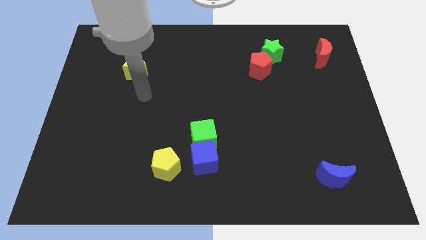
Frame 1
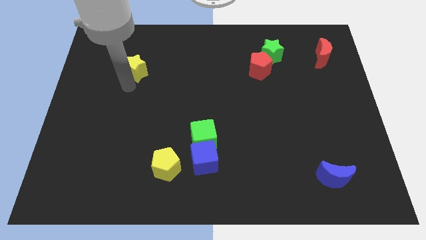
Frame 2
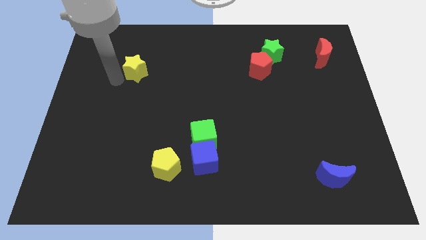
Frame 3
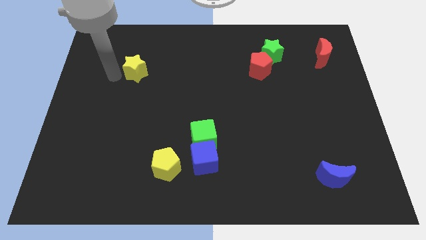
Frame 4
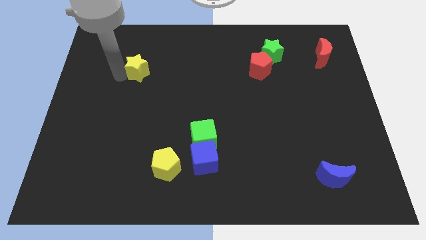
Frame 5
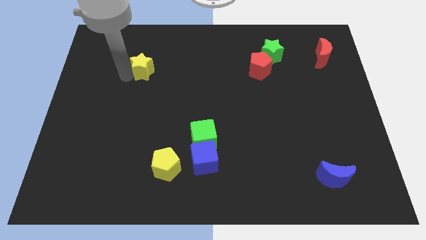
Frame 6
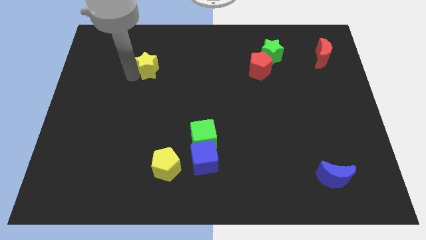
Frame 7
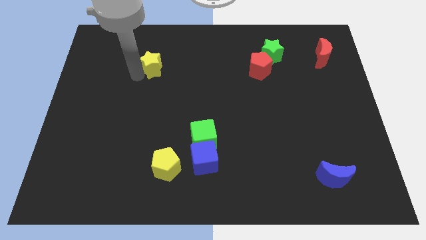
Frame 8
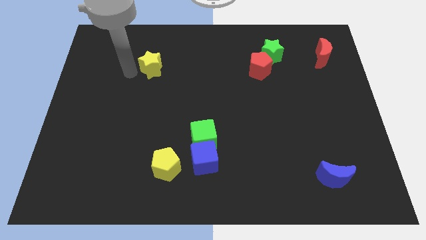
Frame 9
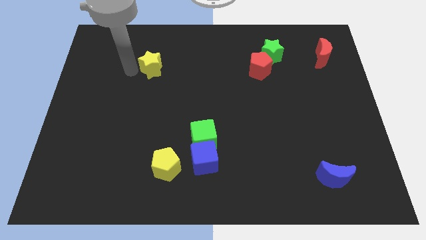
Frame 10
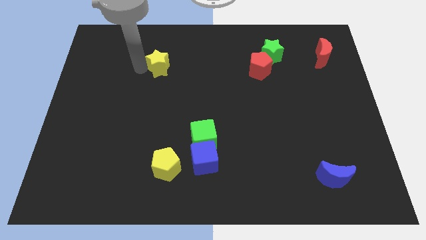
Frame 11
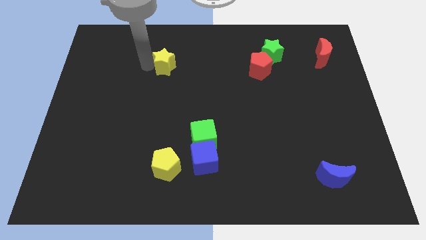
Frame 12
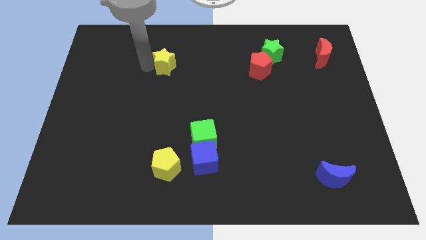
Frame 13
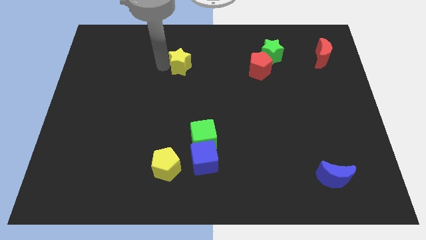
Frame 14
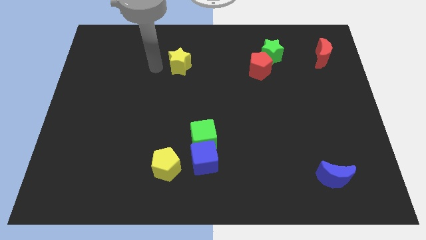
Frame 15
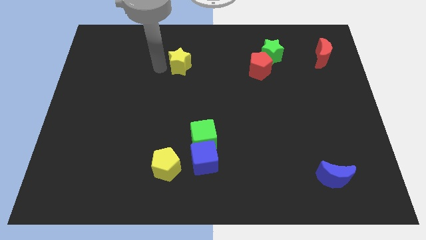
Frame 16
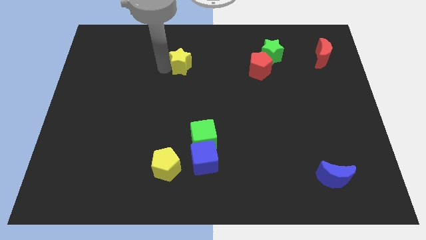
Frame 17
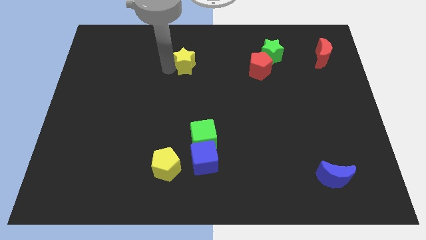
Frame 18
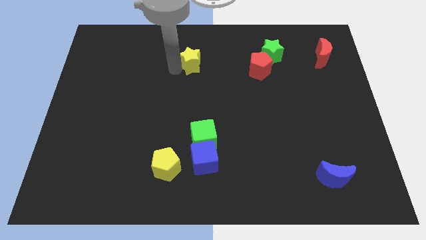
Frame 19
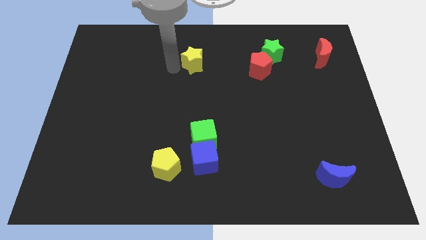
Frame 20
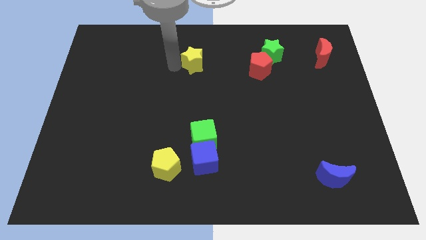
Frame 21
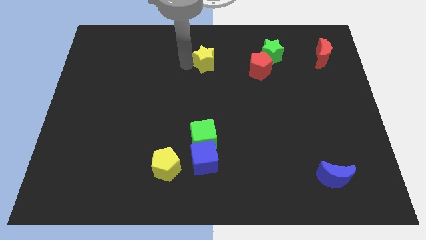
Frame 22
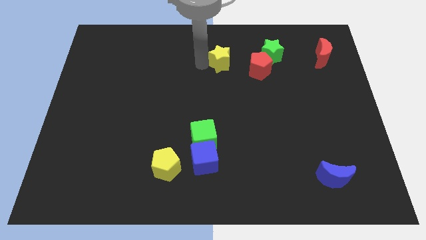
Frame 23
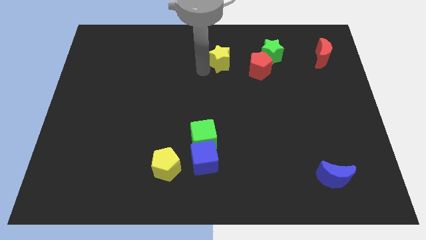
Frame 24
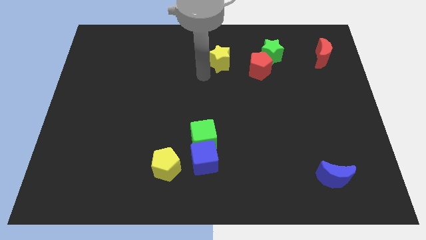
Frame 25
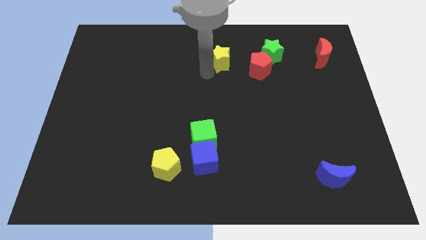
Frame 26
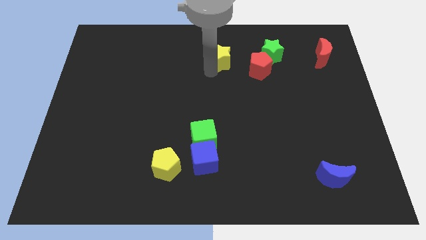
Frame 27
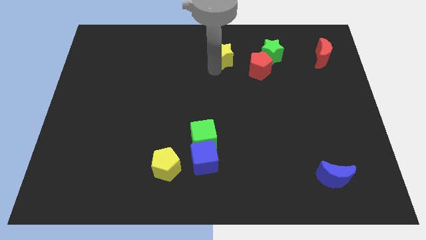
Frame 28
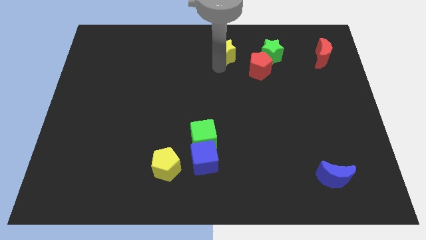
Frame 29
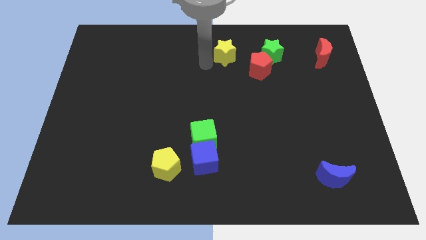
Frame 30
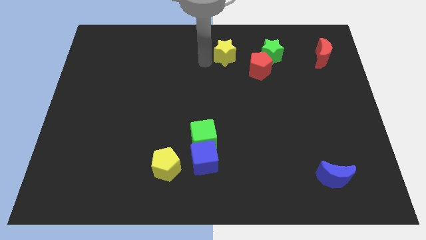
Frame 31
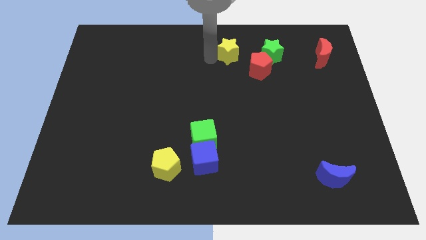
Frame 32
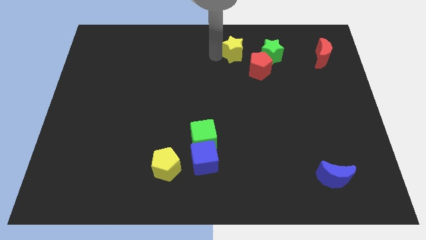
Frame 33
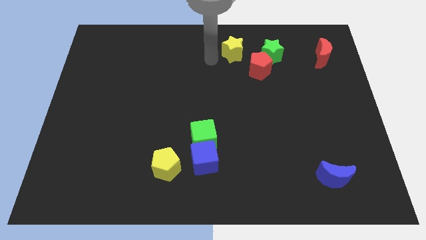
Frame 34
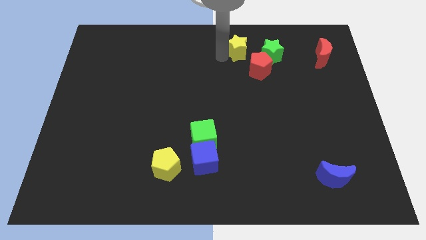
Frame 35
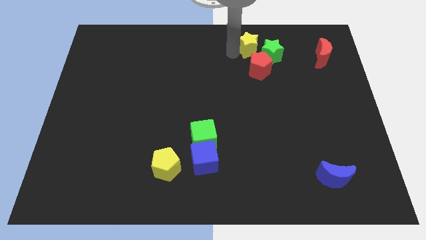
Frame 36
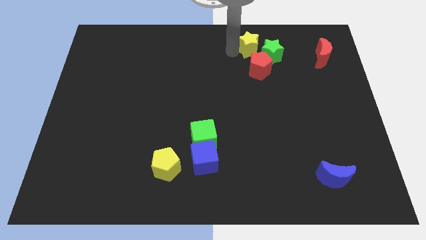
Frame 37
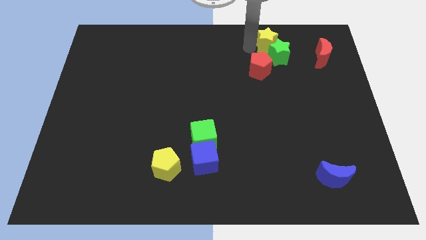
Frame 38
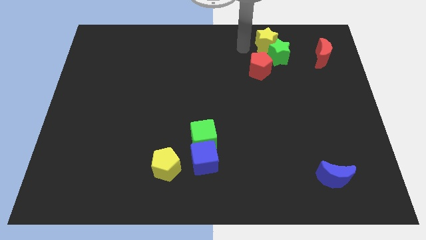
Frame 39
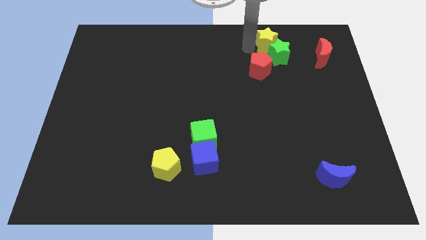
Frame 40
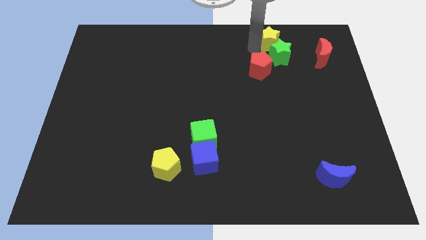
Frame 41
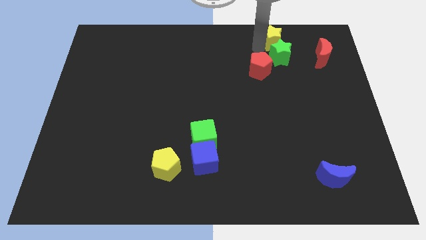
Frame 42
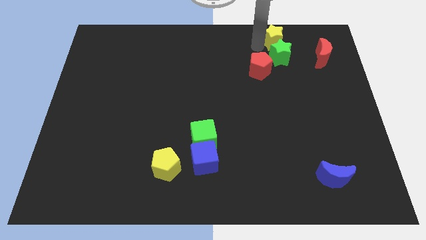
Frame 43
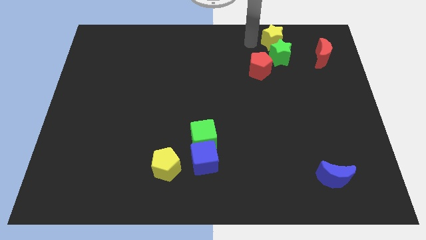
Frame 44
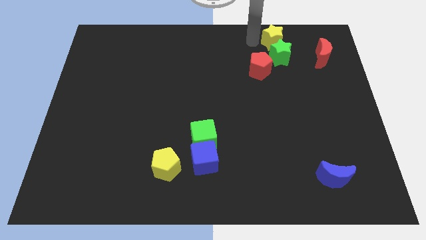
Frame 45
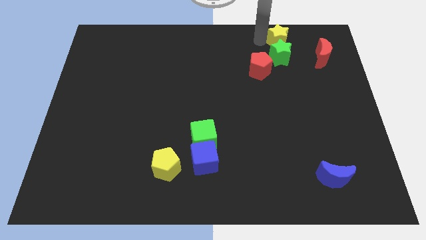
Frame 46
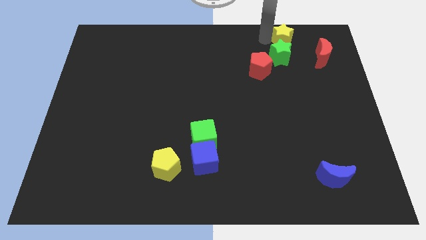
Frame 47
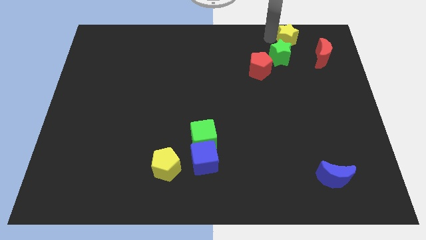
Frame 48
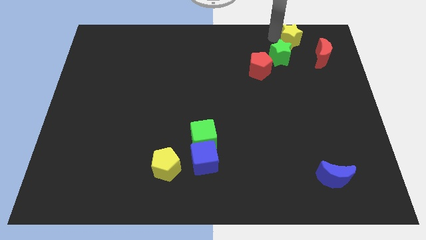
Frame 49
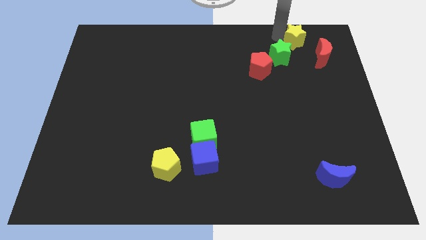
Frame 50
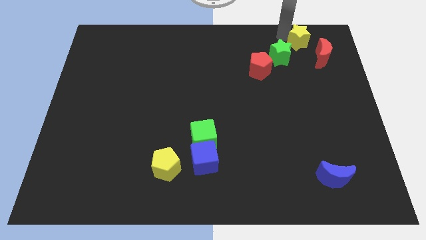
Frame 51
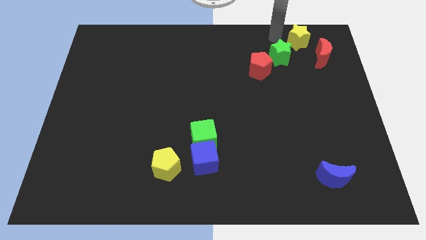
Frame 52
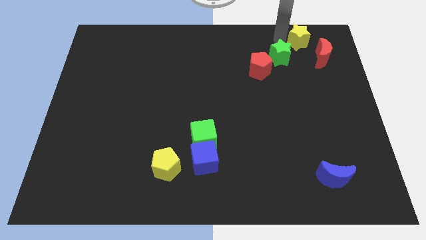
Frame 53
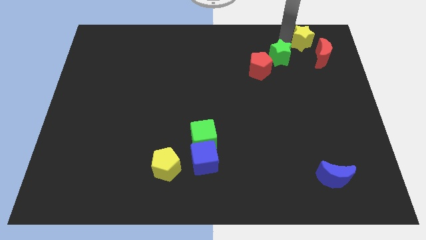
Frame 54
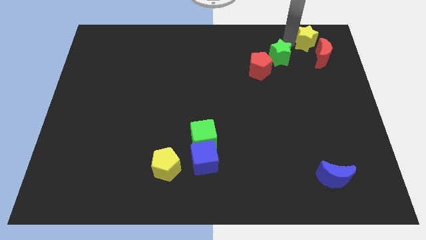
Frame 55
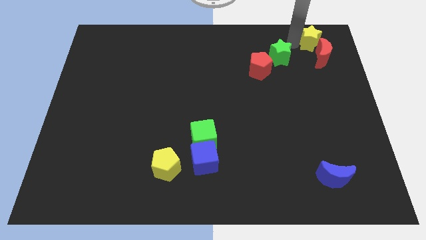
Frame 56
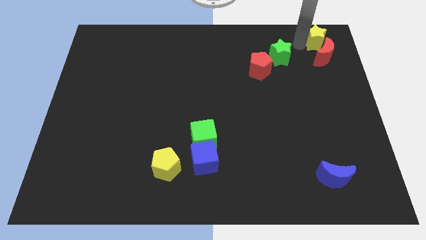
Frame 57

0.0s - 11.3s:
push the yellow star to the top right of the board

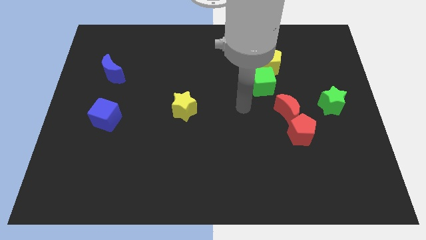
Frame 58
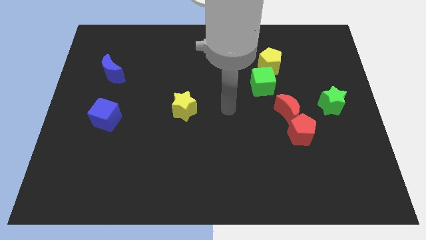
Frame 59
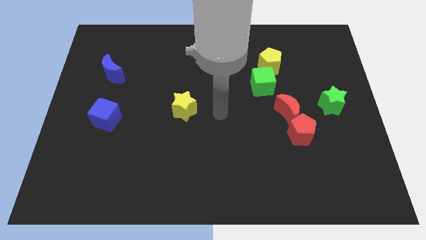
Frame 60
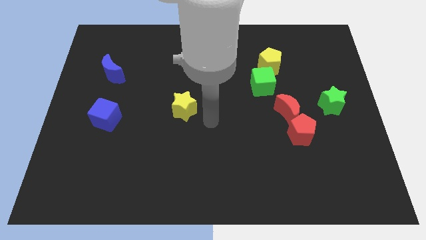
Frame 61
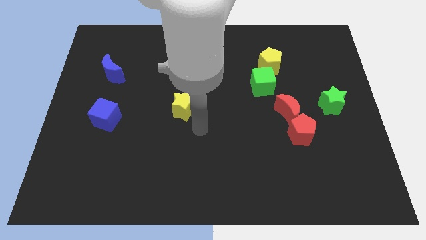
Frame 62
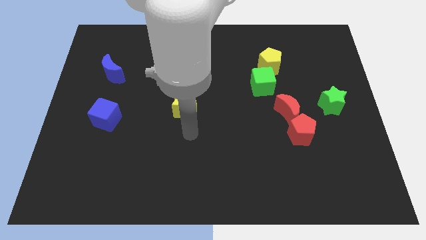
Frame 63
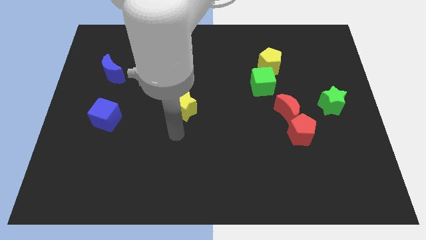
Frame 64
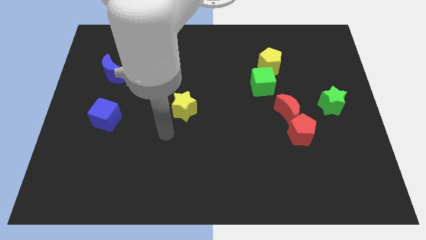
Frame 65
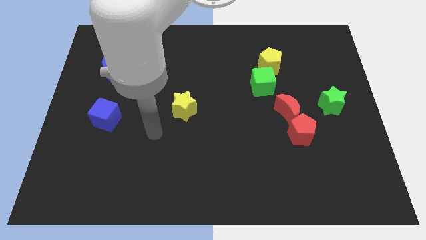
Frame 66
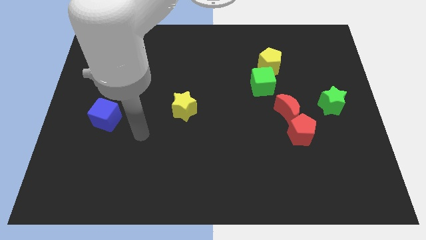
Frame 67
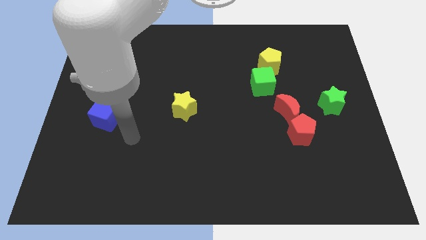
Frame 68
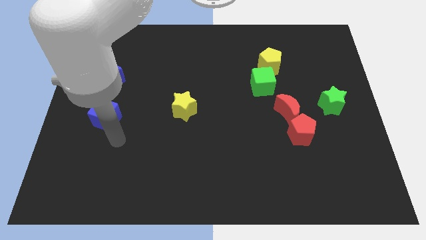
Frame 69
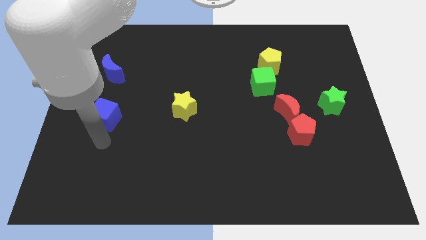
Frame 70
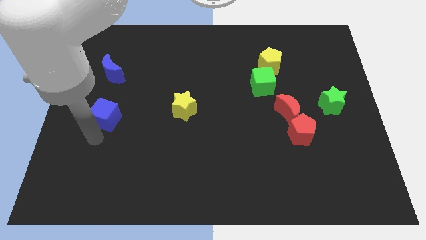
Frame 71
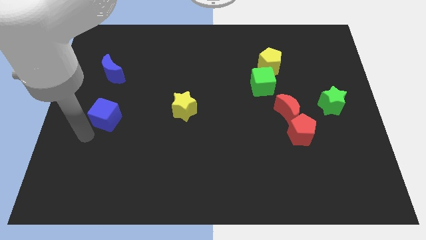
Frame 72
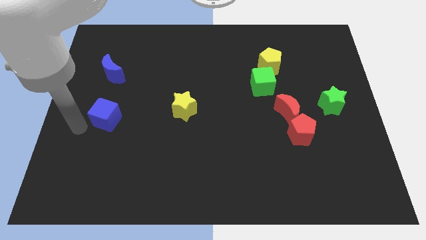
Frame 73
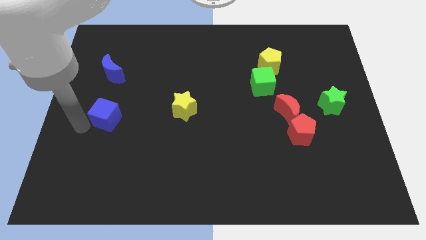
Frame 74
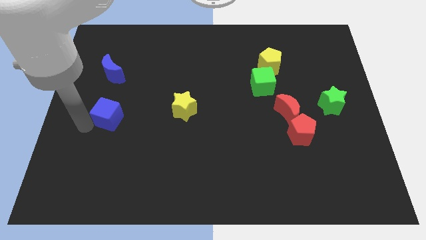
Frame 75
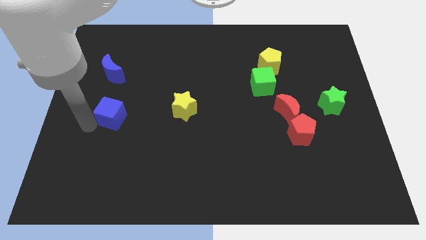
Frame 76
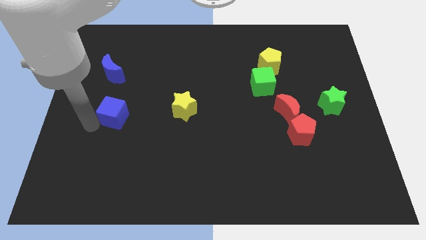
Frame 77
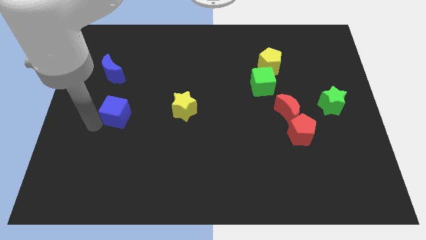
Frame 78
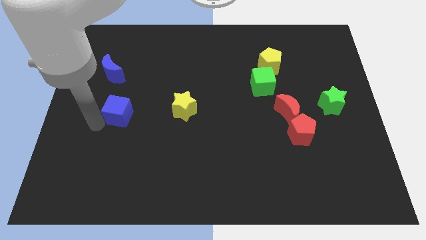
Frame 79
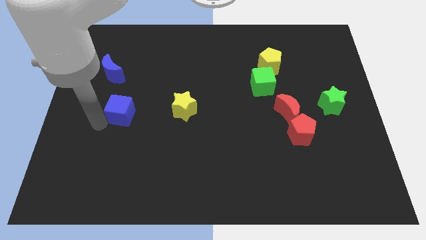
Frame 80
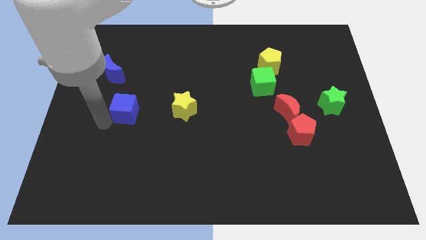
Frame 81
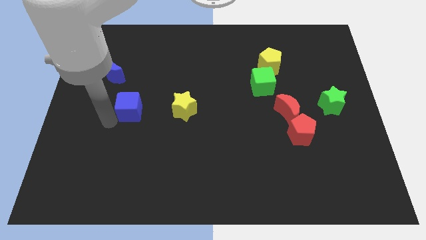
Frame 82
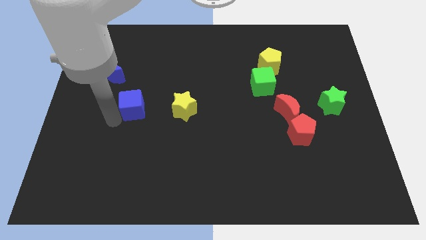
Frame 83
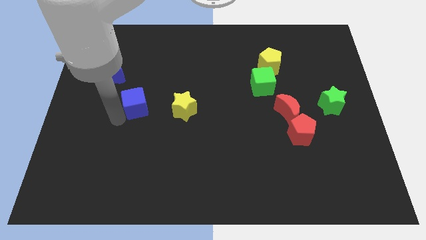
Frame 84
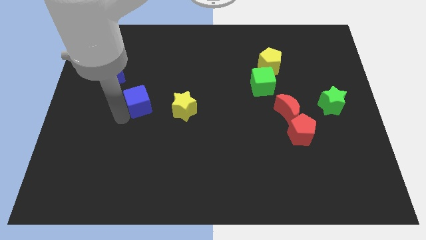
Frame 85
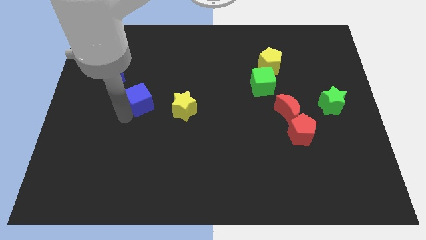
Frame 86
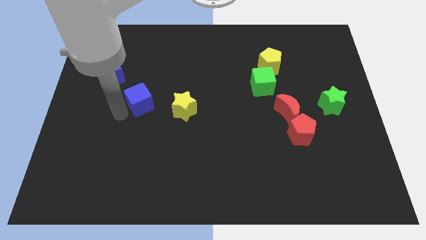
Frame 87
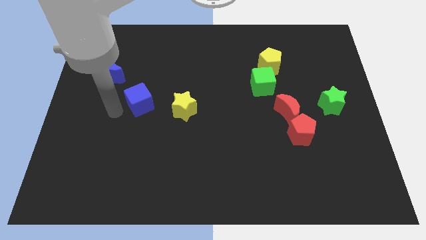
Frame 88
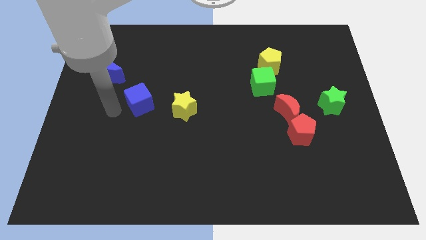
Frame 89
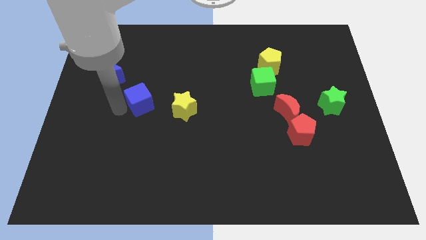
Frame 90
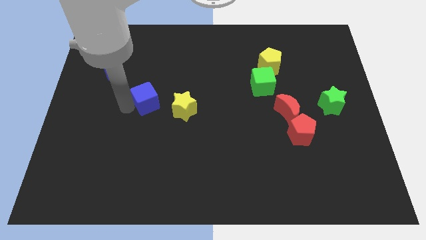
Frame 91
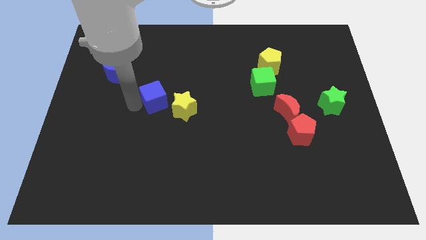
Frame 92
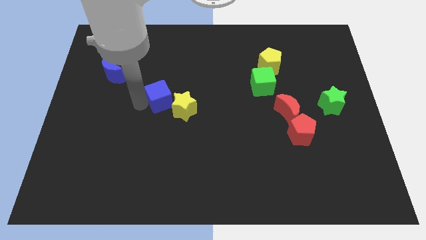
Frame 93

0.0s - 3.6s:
push the blue cube to the middle of the board
